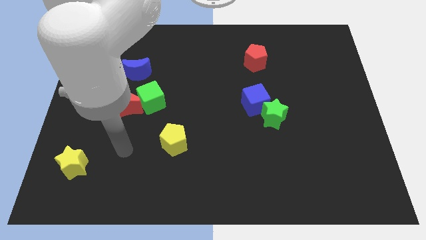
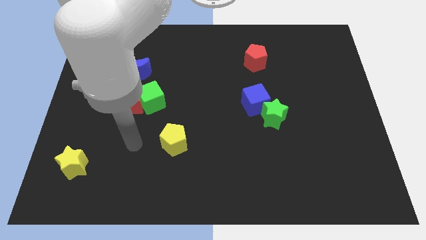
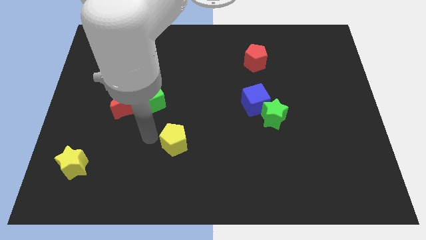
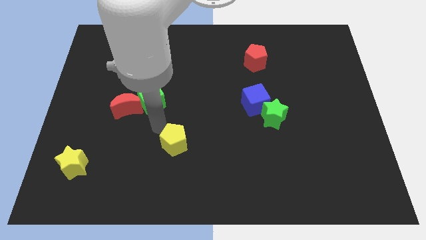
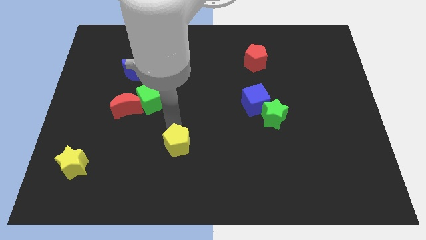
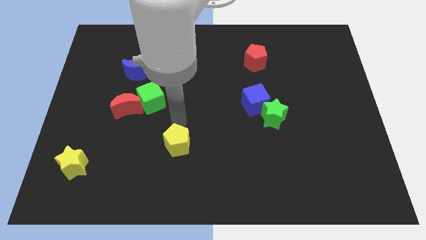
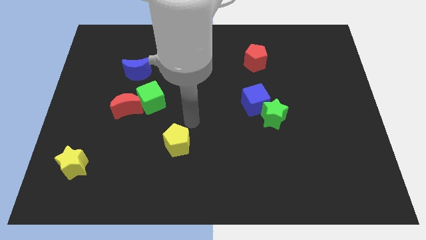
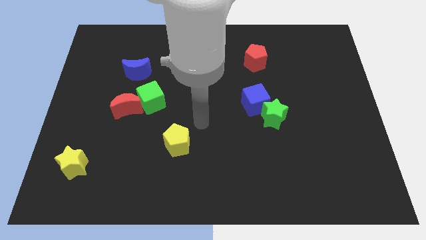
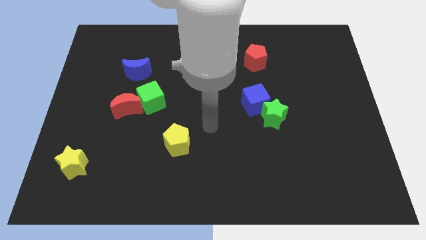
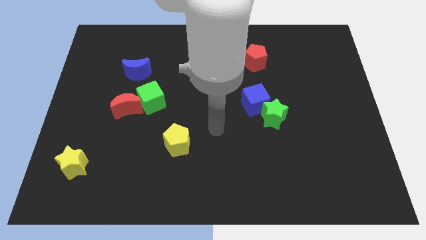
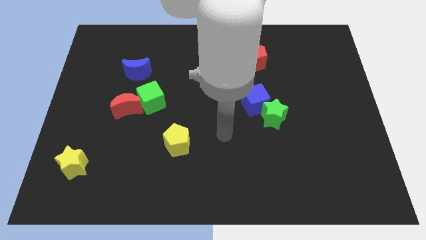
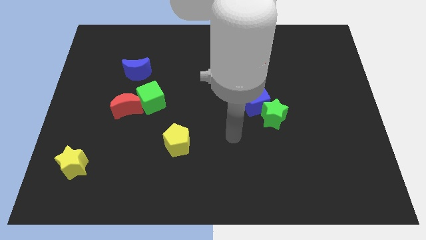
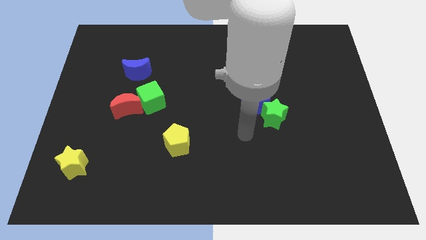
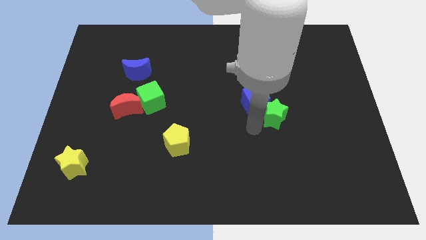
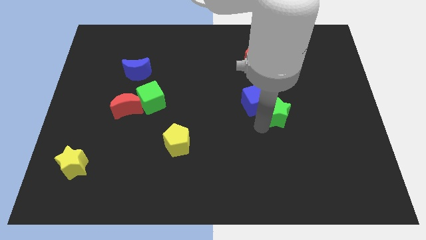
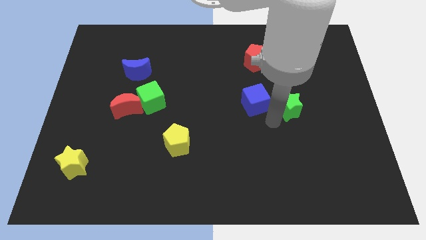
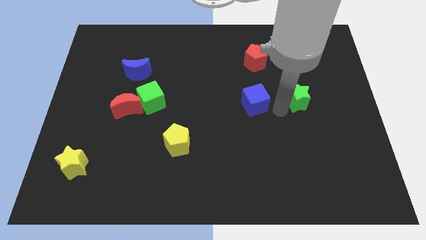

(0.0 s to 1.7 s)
pull the blue cube apart from the green star

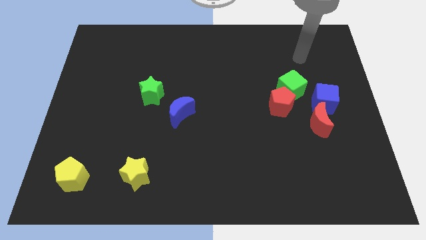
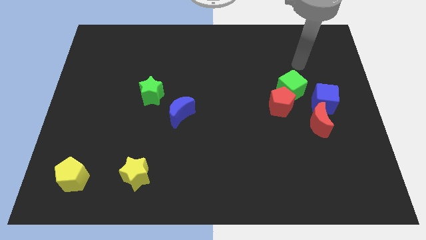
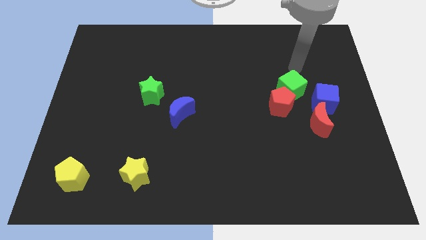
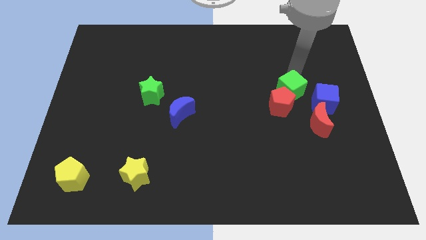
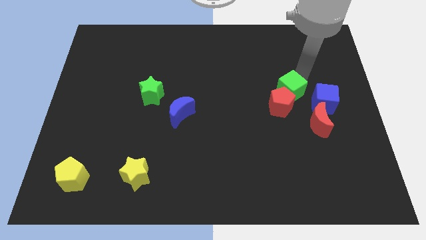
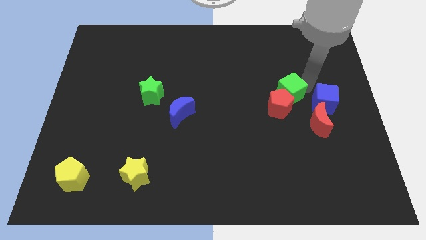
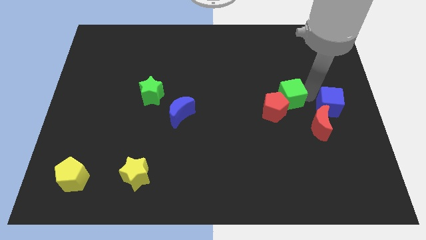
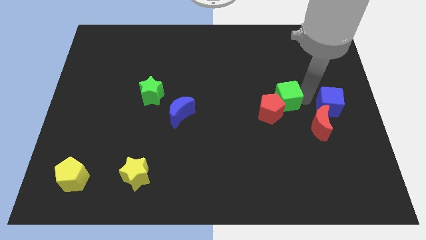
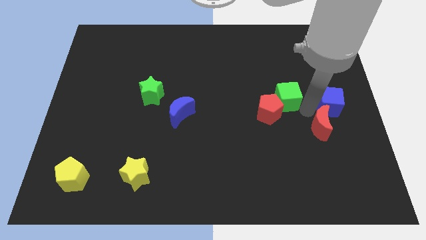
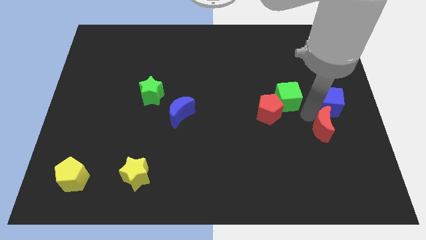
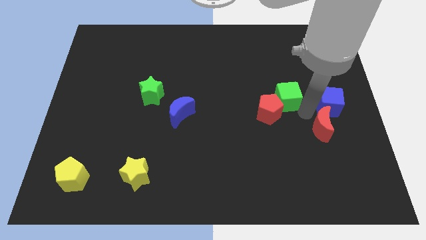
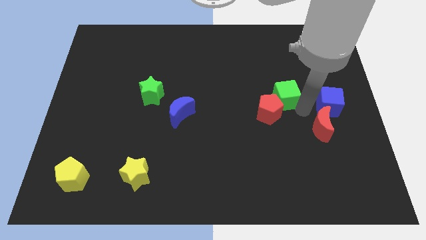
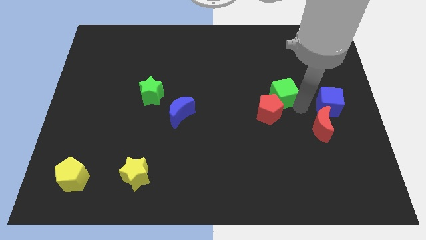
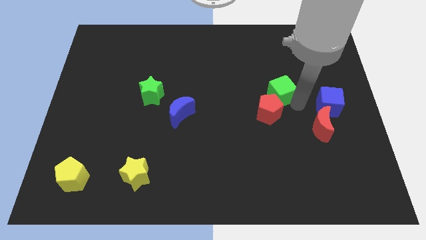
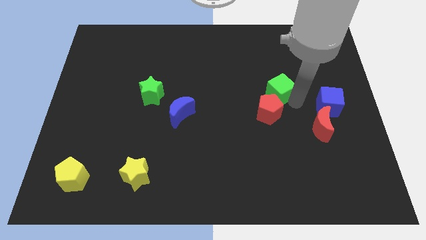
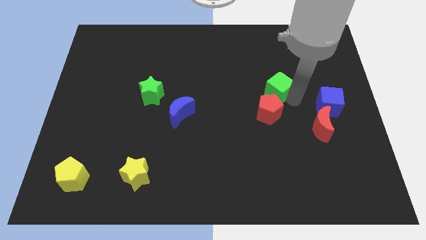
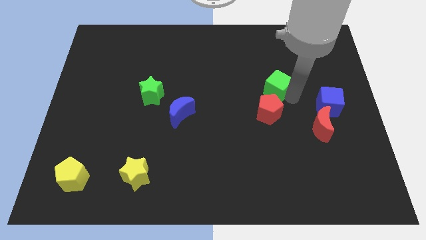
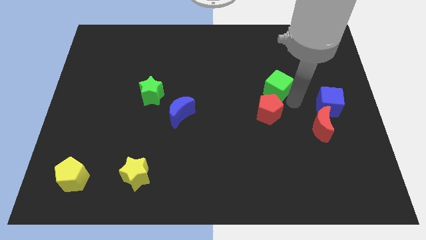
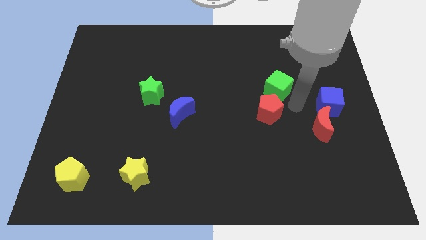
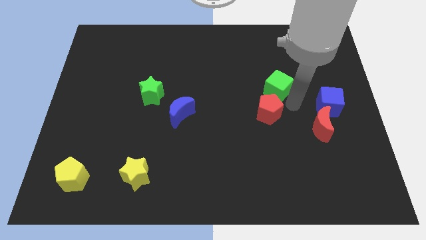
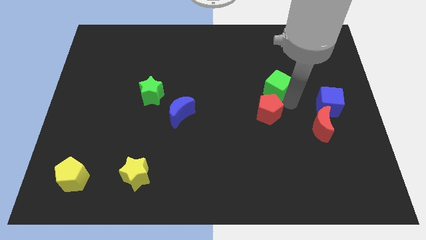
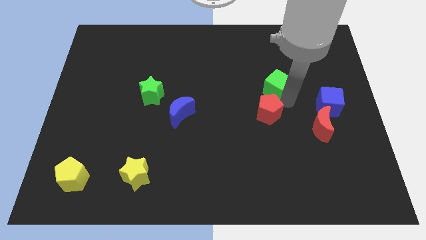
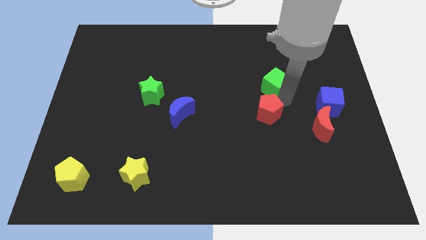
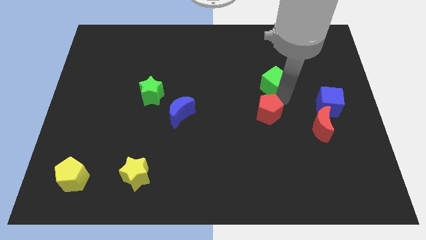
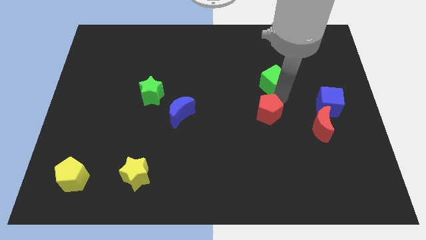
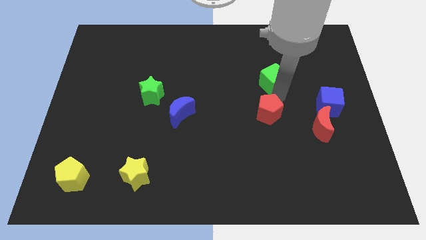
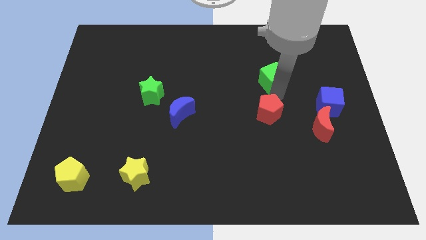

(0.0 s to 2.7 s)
move the green cube away from the red pentagon and blue cube

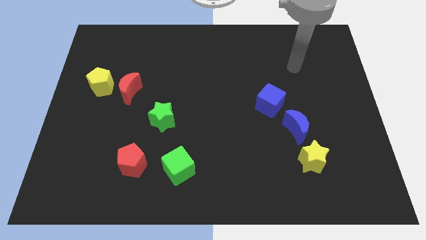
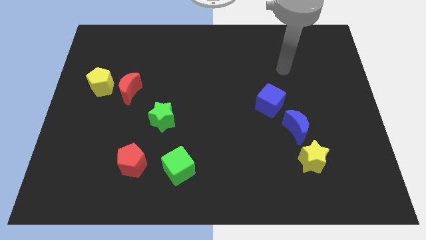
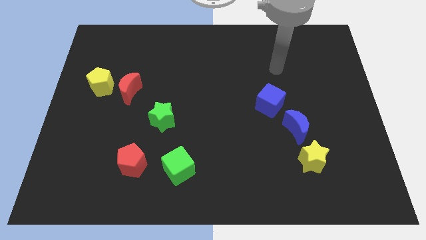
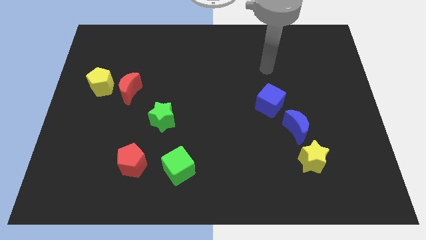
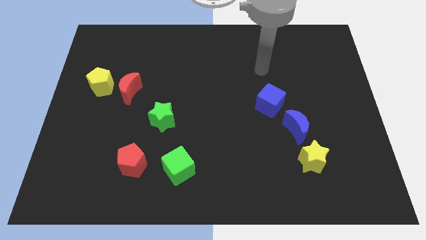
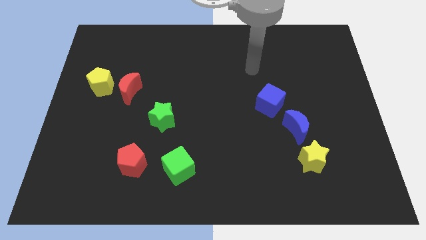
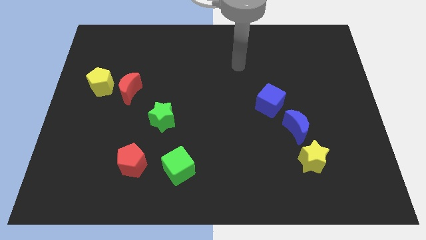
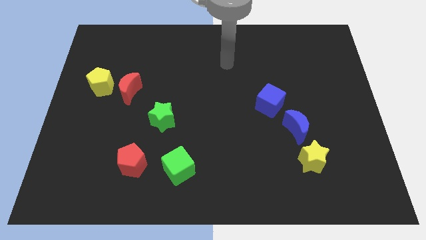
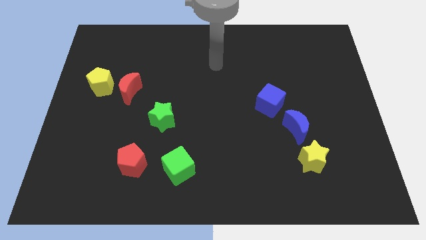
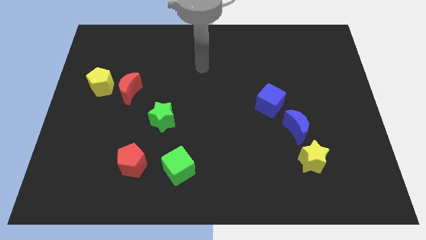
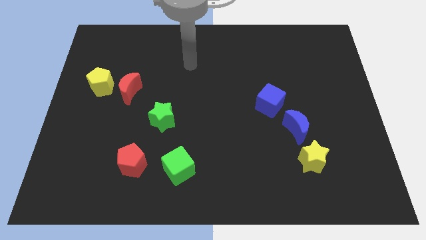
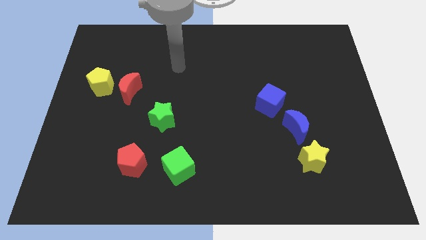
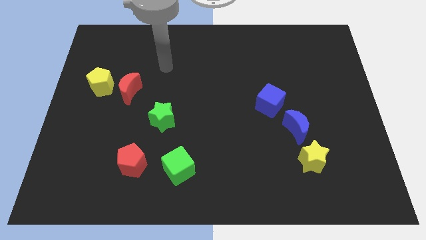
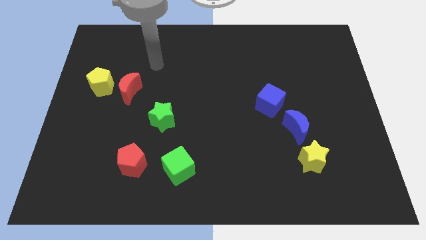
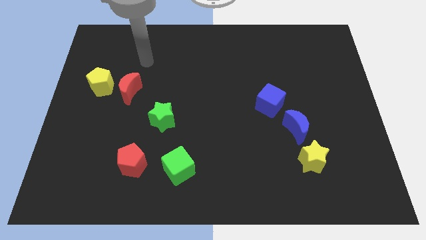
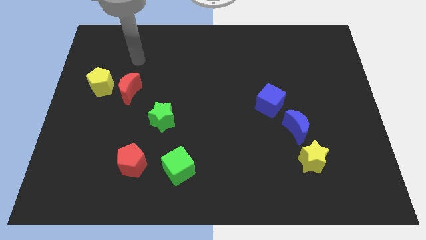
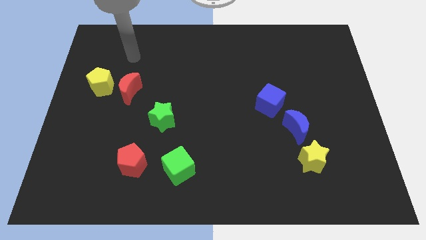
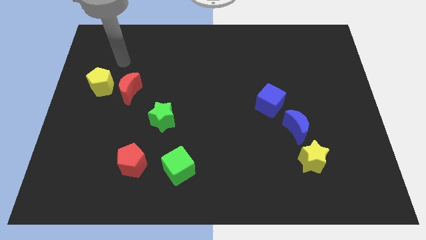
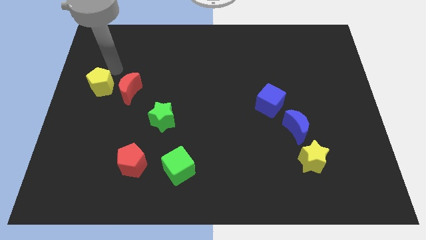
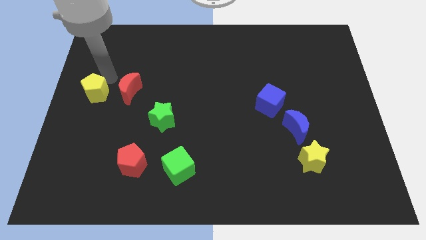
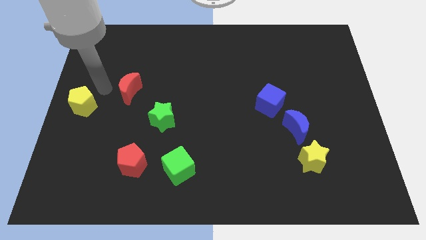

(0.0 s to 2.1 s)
move the red moon away from the yellow pentagon

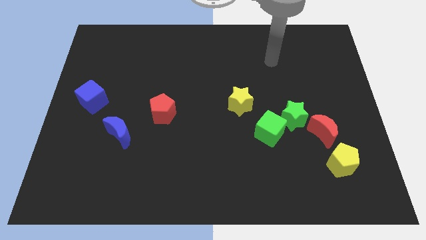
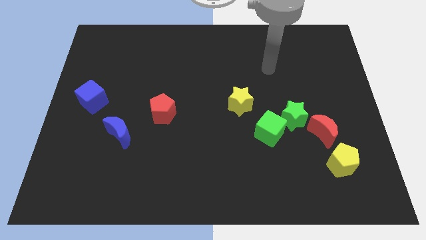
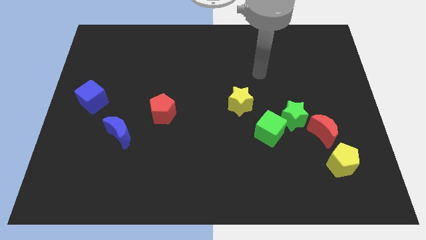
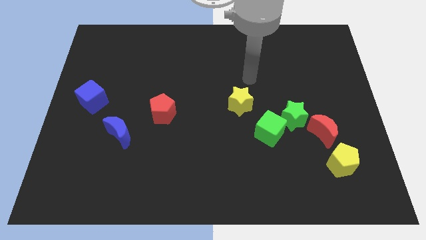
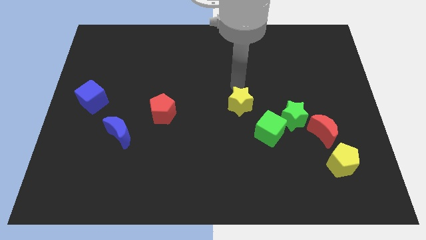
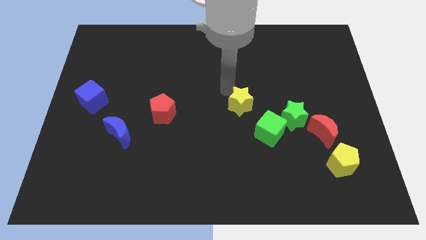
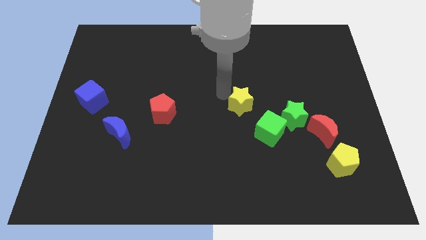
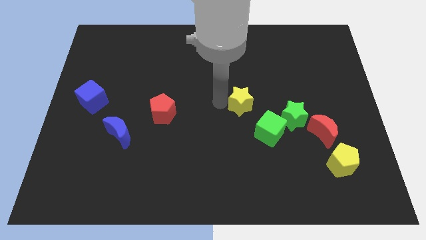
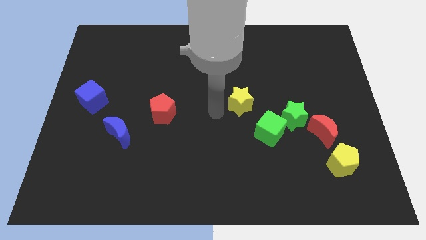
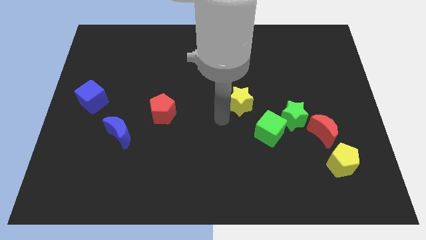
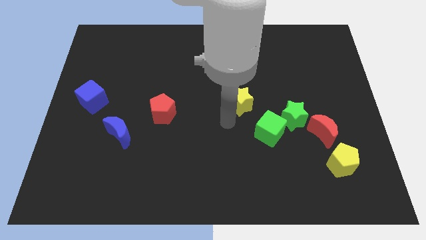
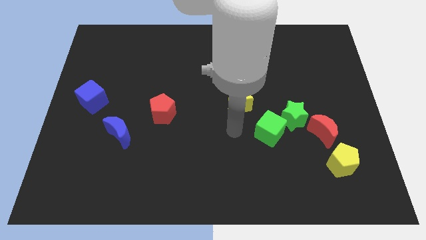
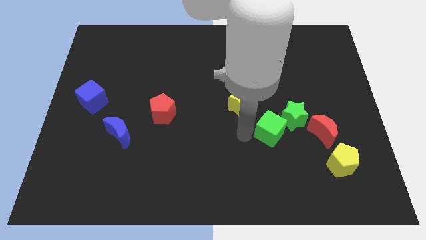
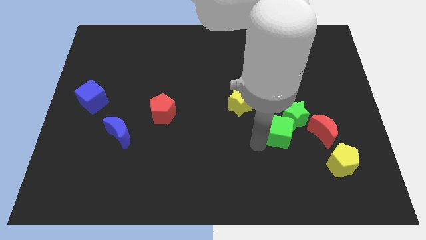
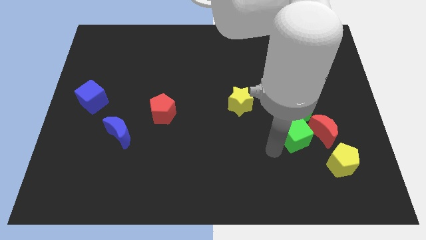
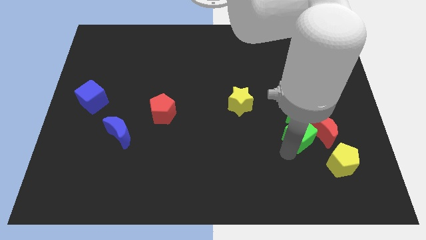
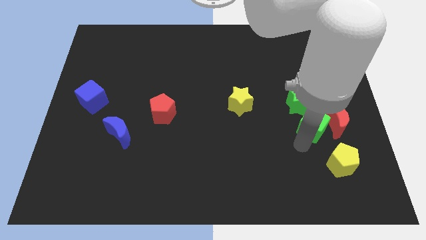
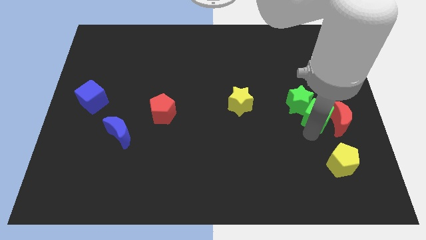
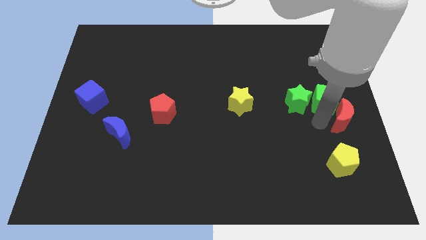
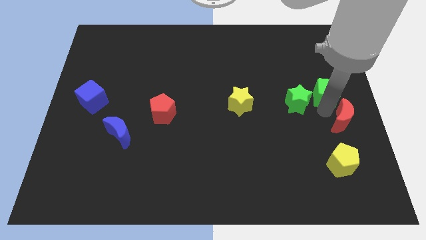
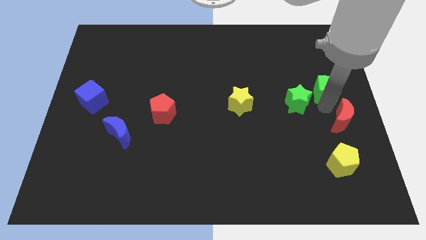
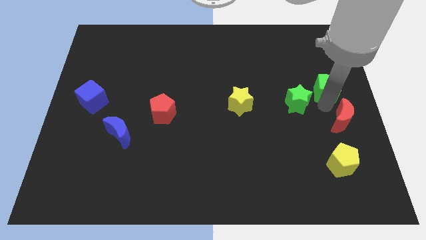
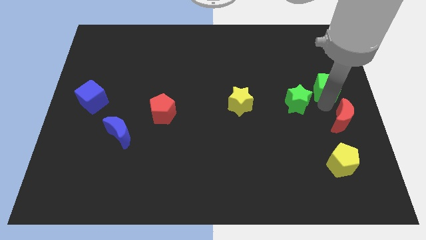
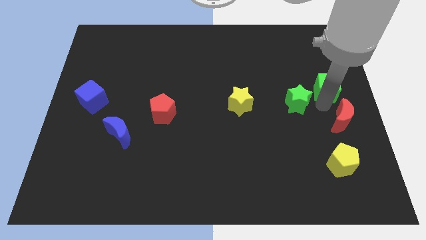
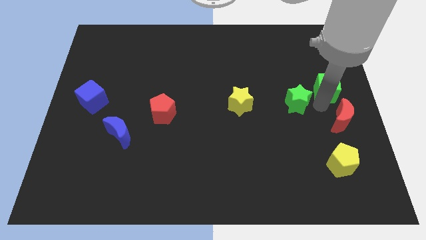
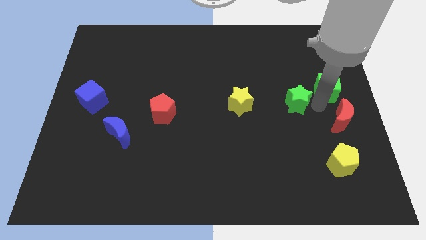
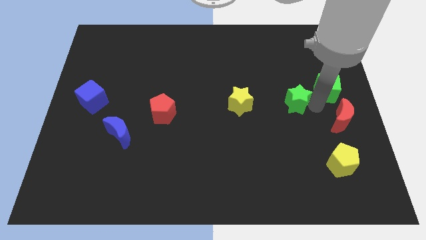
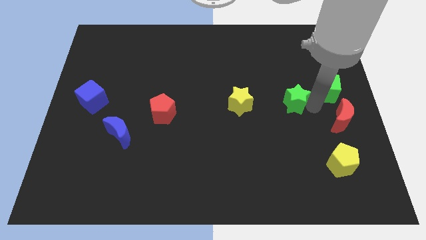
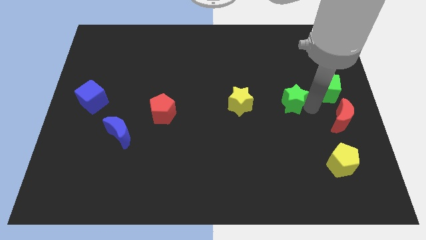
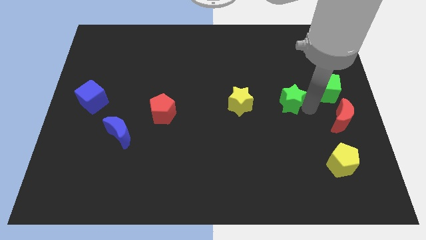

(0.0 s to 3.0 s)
pull the green star apart from the green cube and red moon
